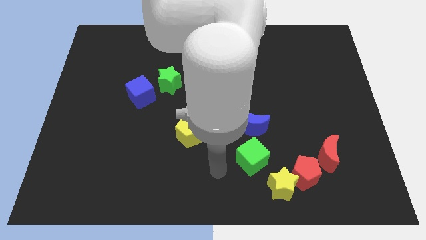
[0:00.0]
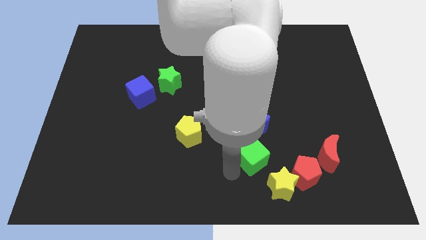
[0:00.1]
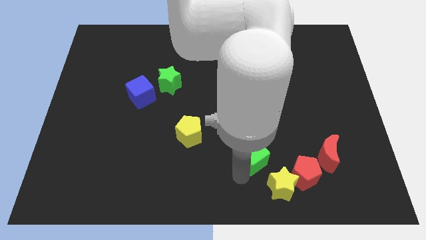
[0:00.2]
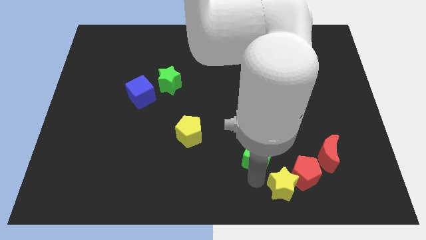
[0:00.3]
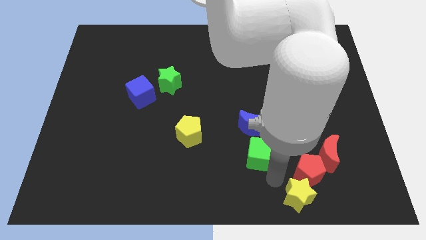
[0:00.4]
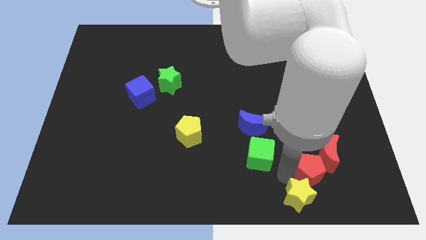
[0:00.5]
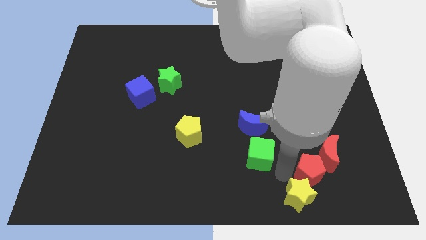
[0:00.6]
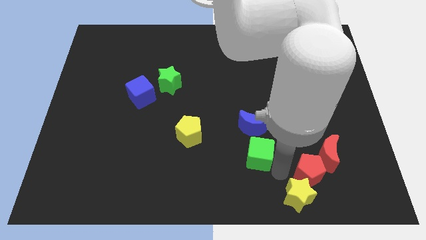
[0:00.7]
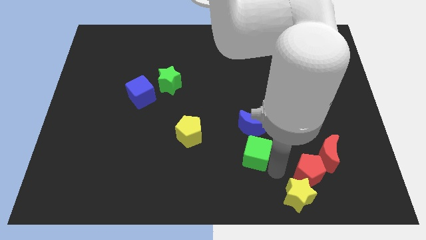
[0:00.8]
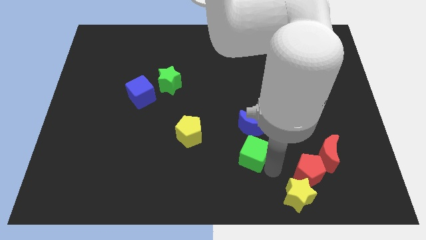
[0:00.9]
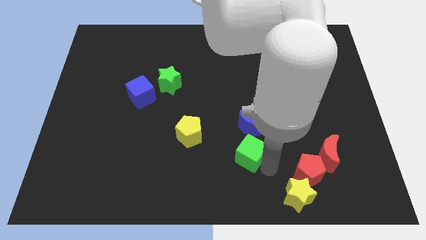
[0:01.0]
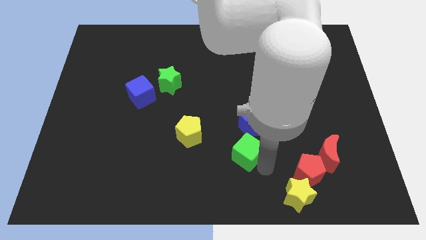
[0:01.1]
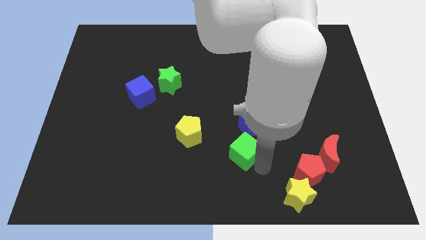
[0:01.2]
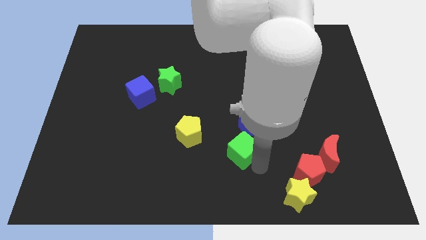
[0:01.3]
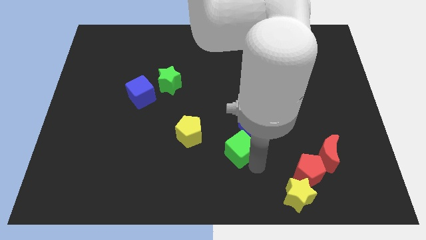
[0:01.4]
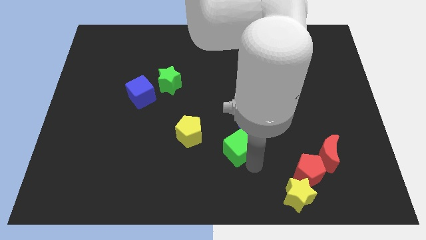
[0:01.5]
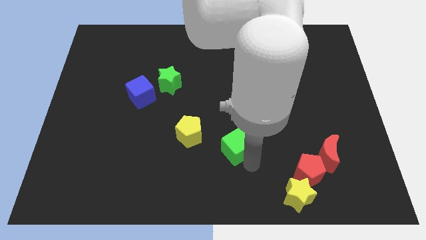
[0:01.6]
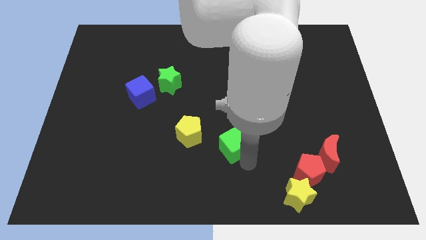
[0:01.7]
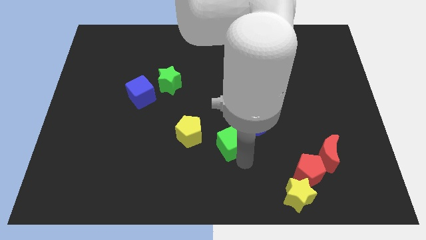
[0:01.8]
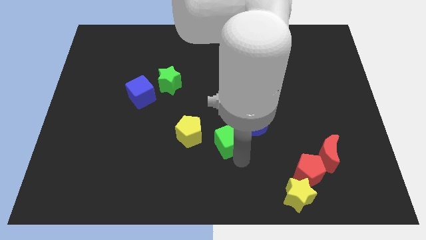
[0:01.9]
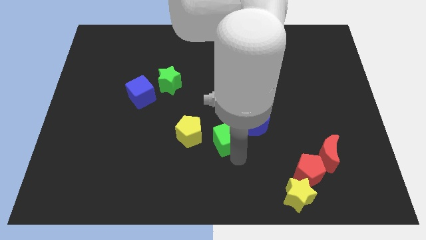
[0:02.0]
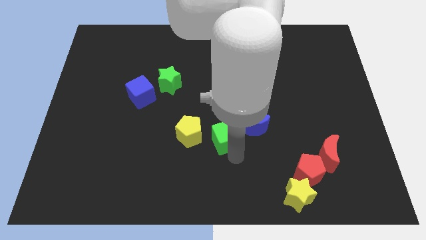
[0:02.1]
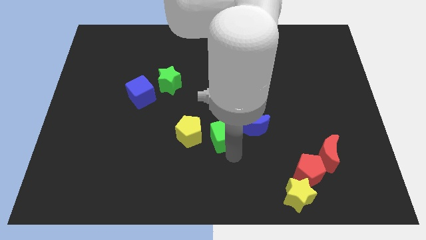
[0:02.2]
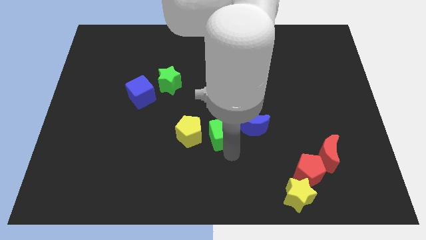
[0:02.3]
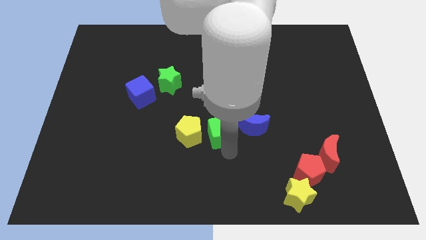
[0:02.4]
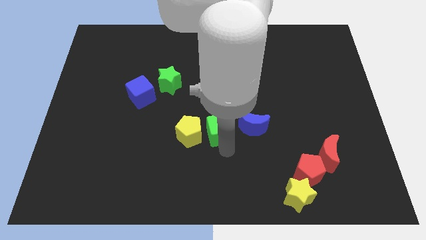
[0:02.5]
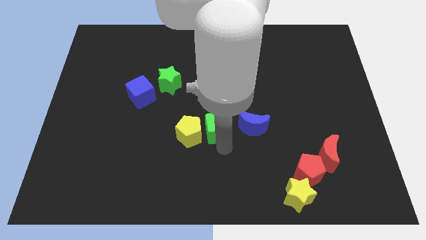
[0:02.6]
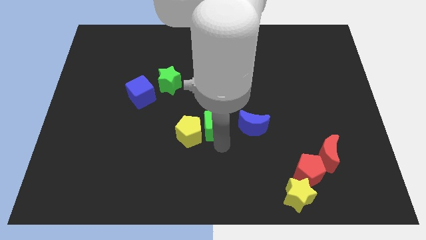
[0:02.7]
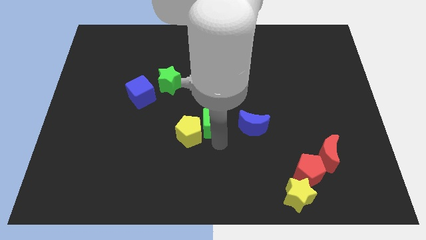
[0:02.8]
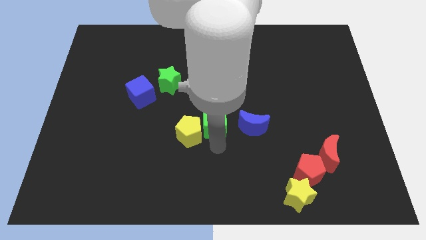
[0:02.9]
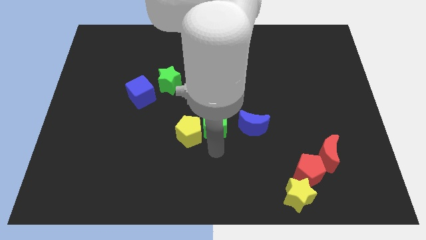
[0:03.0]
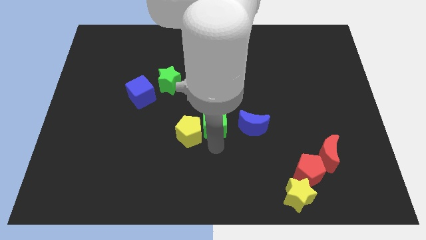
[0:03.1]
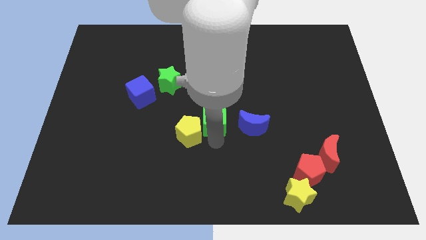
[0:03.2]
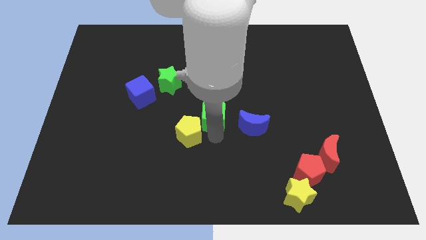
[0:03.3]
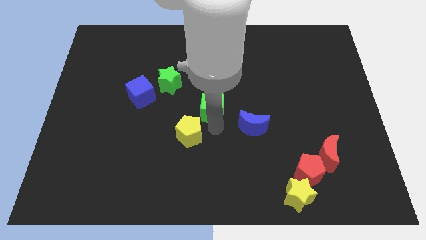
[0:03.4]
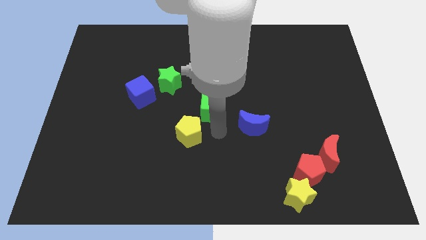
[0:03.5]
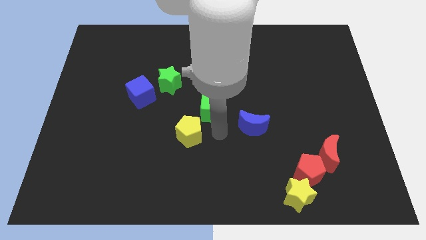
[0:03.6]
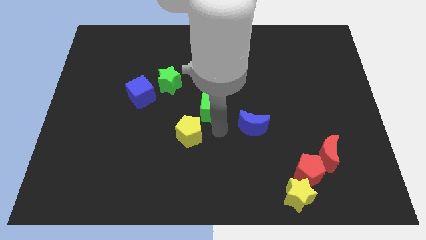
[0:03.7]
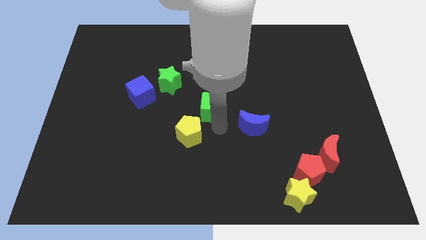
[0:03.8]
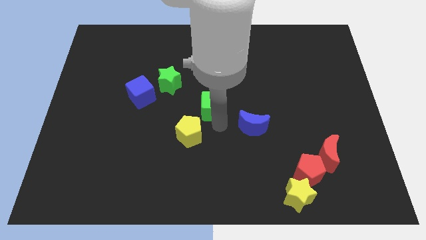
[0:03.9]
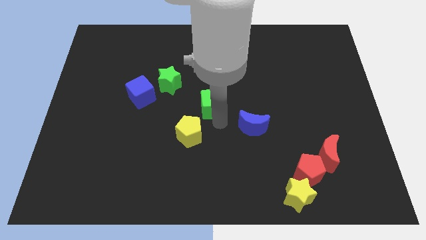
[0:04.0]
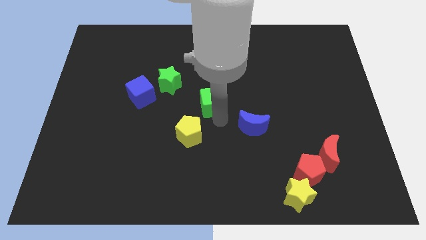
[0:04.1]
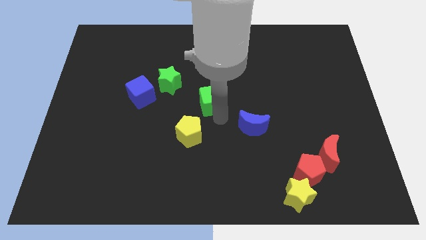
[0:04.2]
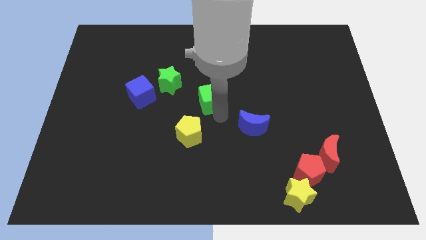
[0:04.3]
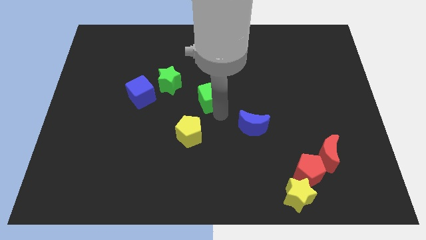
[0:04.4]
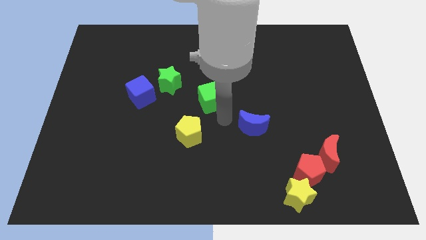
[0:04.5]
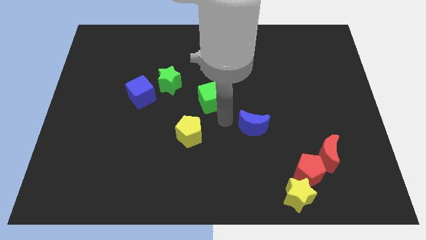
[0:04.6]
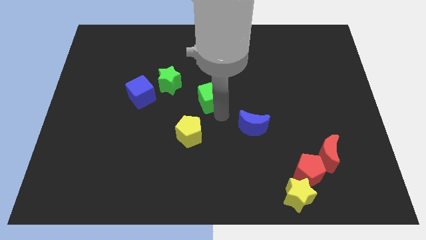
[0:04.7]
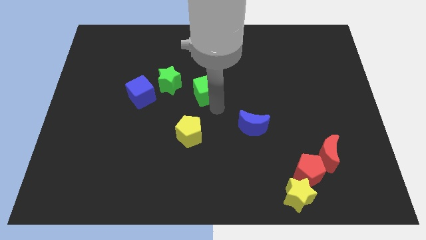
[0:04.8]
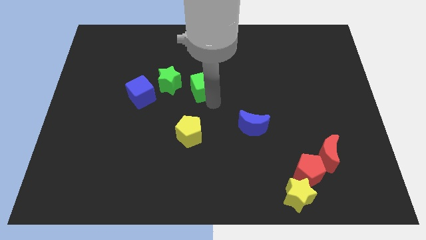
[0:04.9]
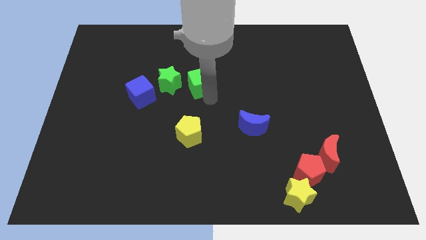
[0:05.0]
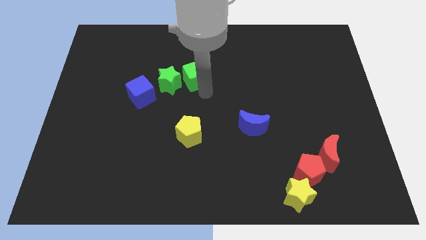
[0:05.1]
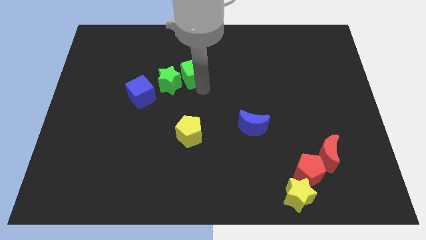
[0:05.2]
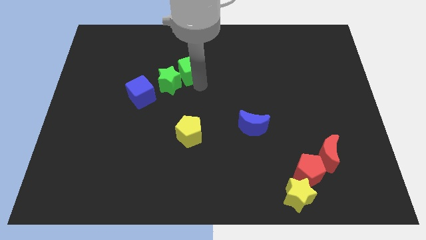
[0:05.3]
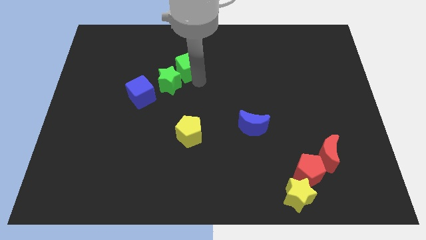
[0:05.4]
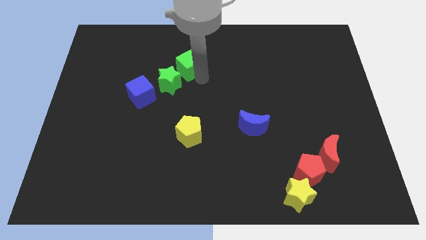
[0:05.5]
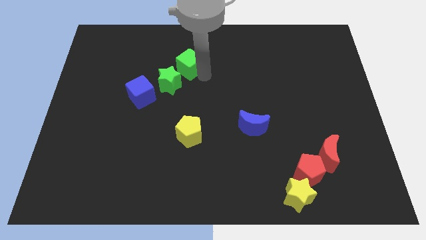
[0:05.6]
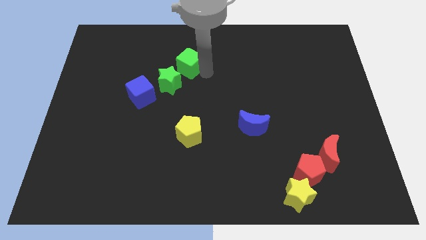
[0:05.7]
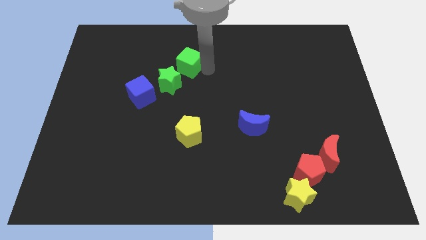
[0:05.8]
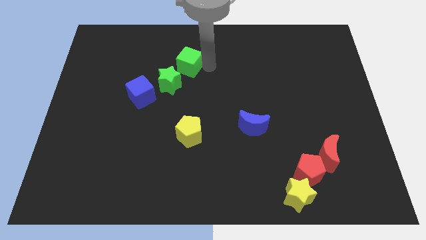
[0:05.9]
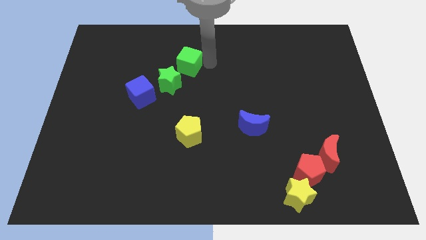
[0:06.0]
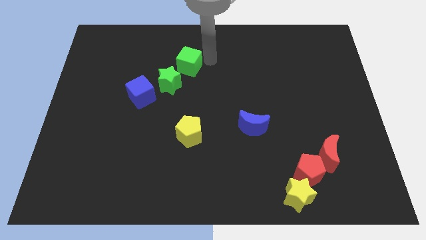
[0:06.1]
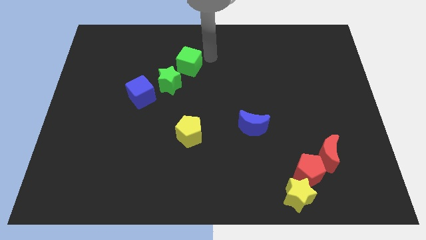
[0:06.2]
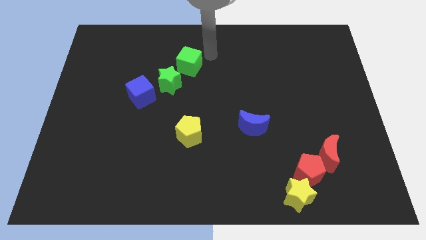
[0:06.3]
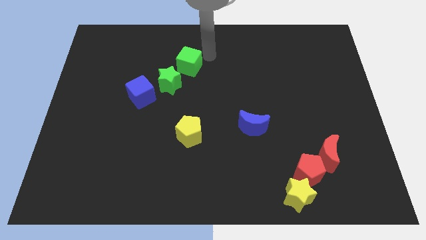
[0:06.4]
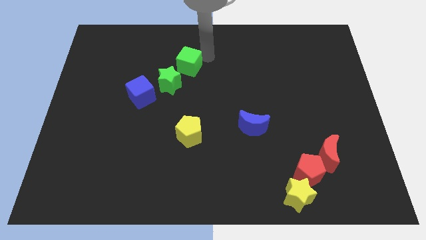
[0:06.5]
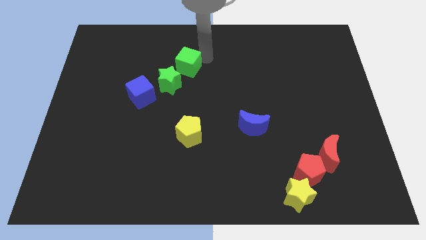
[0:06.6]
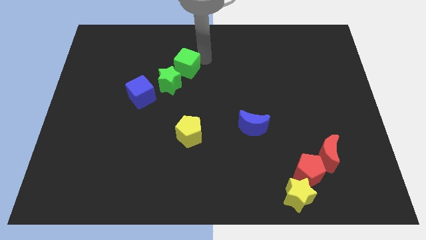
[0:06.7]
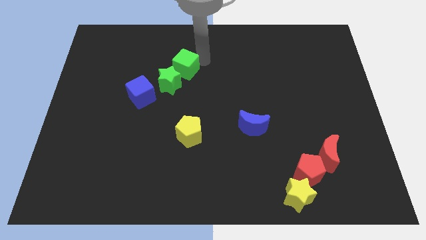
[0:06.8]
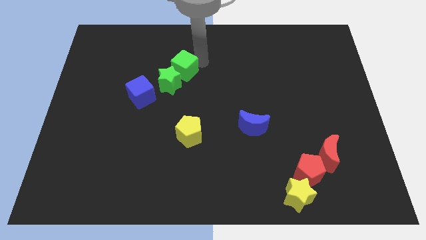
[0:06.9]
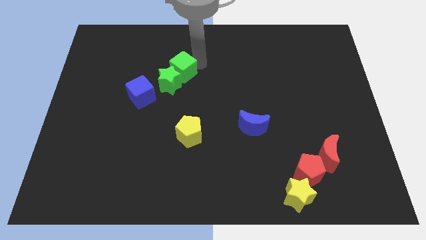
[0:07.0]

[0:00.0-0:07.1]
push the green cube diagonally up and to the right of the blue cube
